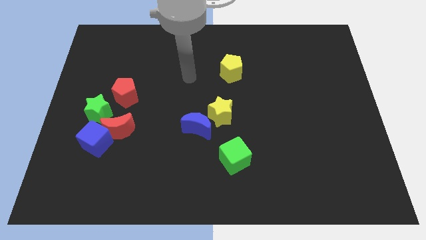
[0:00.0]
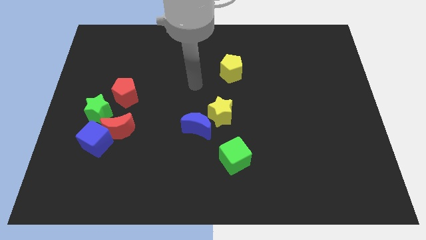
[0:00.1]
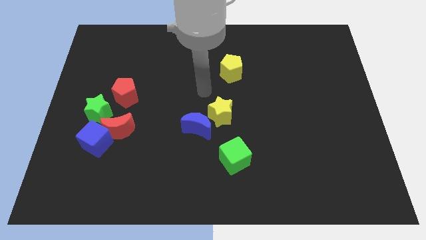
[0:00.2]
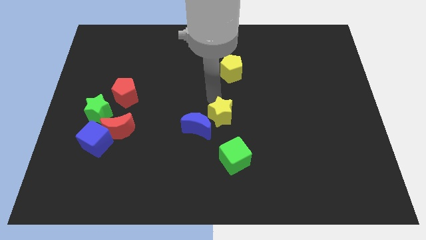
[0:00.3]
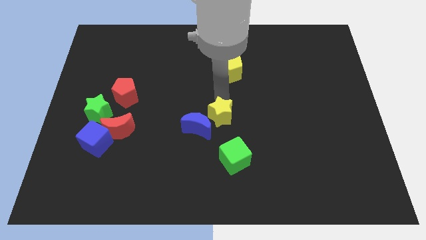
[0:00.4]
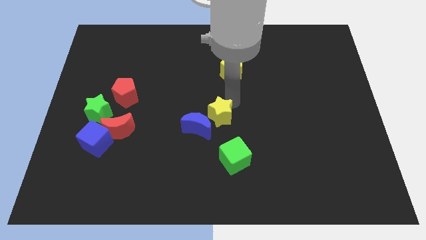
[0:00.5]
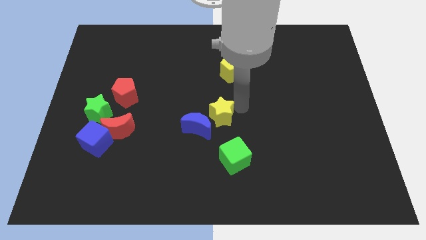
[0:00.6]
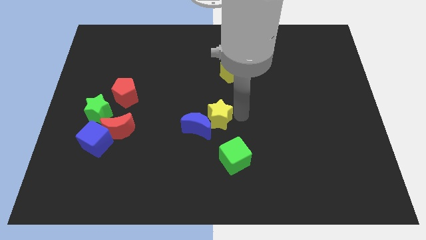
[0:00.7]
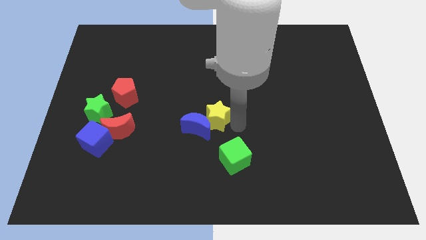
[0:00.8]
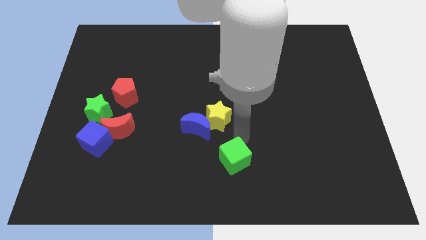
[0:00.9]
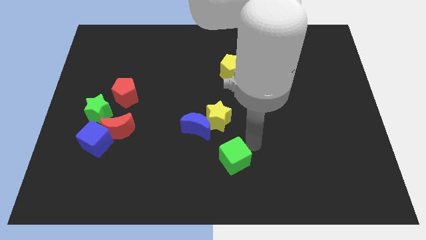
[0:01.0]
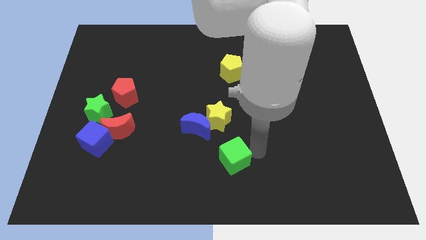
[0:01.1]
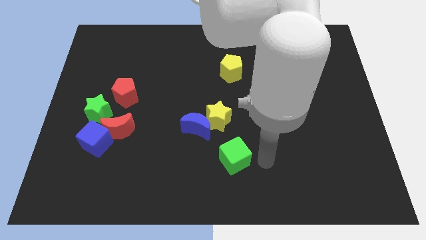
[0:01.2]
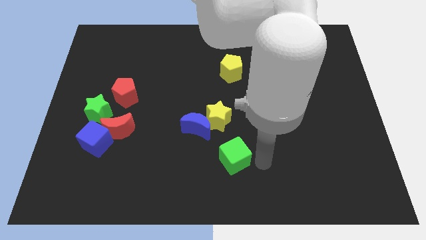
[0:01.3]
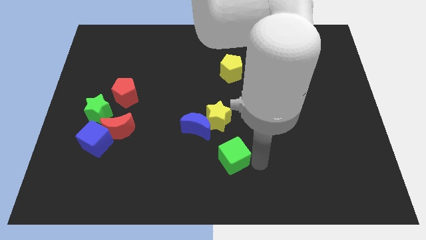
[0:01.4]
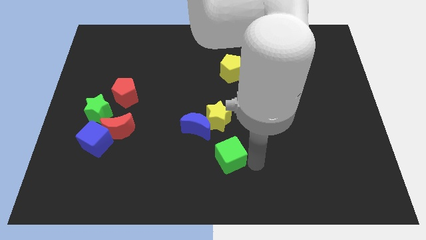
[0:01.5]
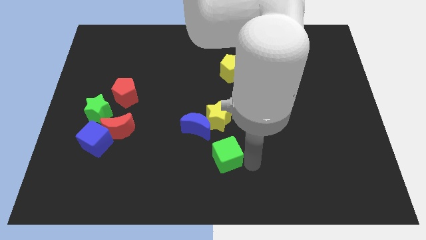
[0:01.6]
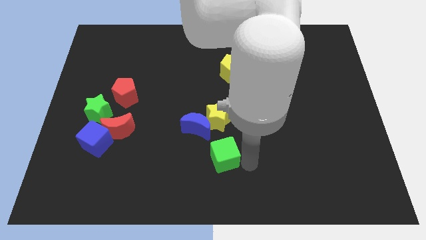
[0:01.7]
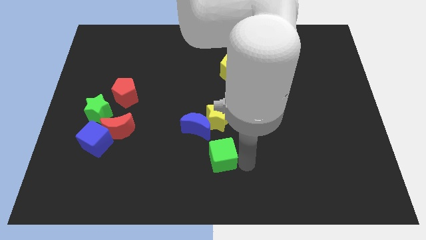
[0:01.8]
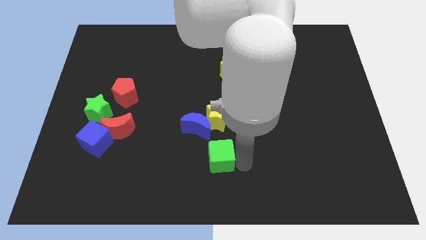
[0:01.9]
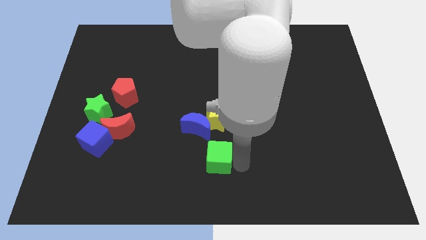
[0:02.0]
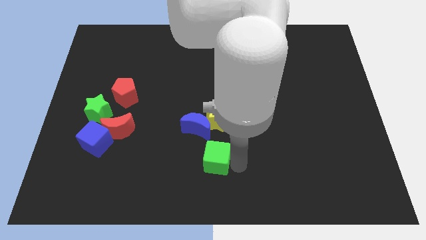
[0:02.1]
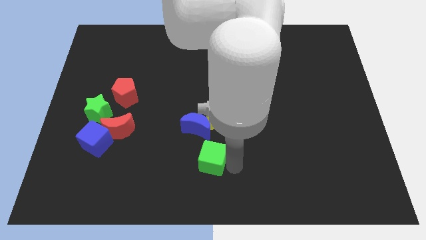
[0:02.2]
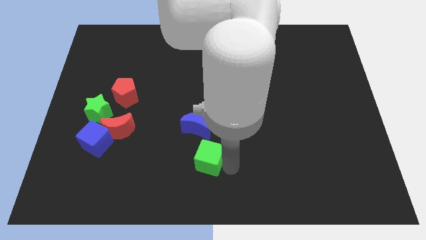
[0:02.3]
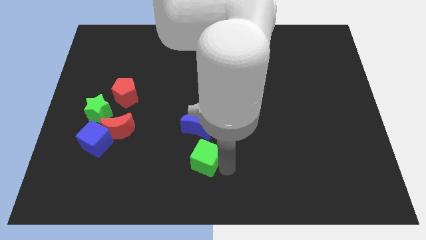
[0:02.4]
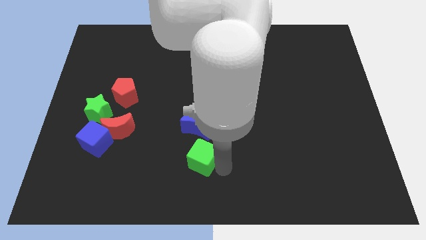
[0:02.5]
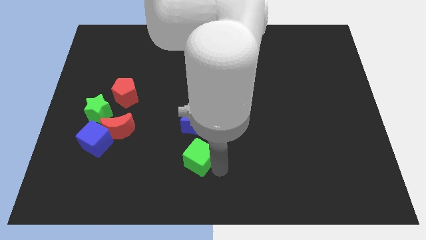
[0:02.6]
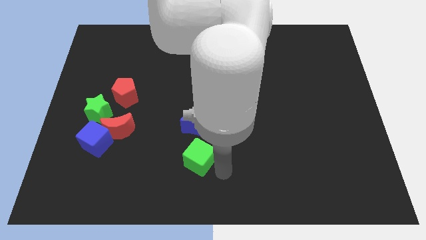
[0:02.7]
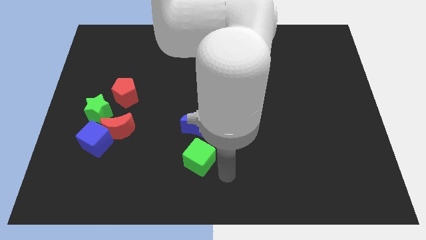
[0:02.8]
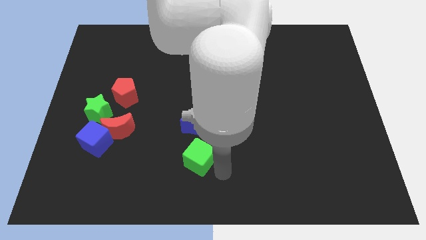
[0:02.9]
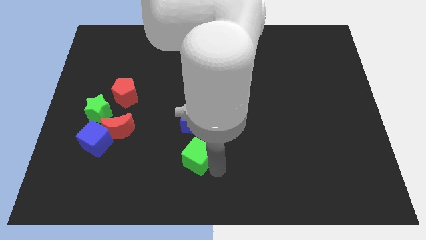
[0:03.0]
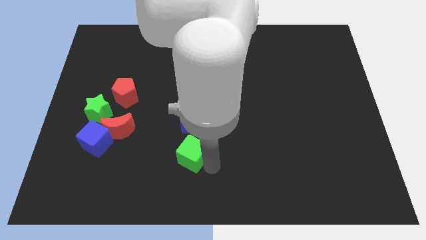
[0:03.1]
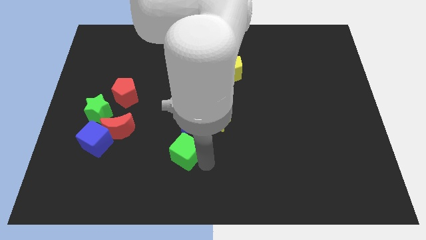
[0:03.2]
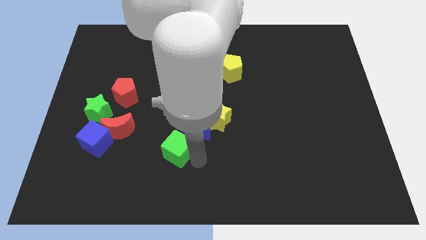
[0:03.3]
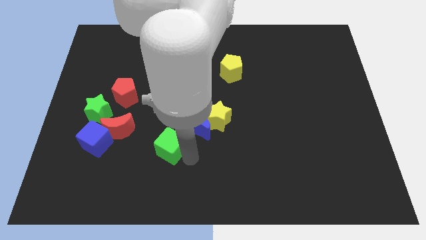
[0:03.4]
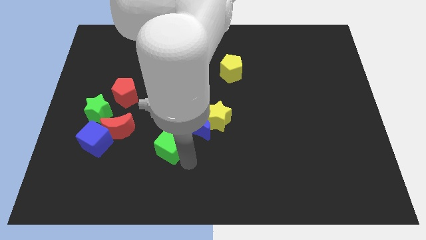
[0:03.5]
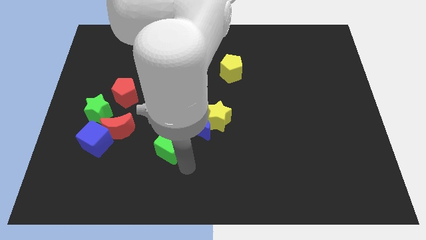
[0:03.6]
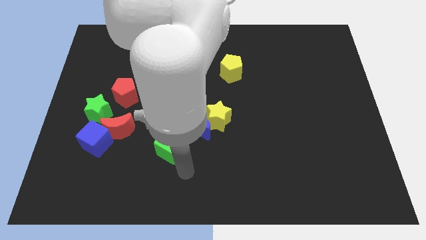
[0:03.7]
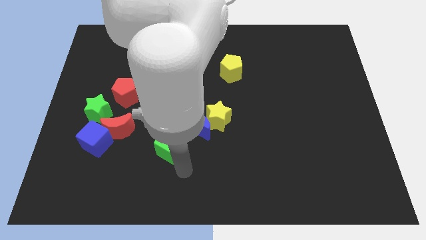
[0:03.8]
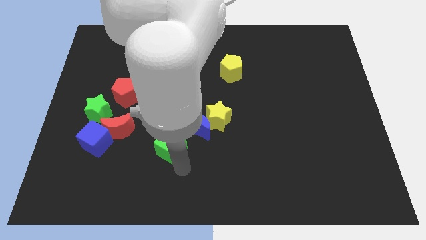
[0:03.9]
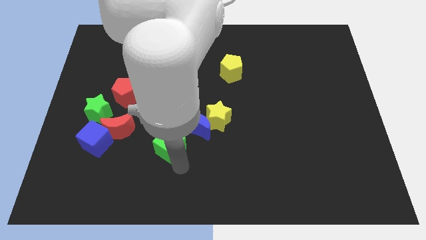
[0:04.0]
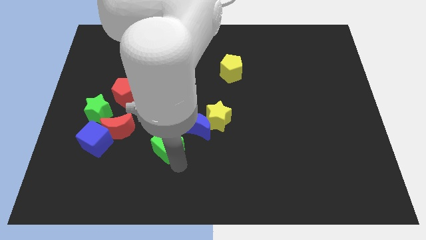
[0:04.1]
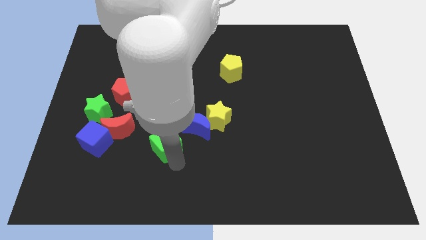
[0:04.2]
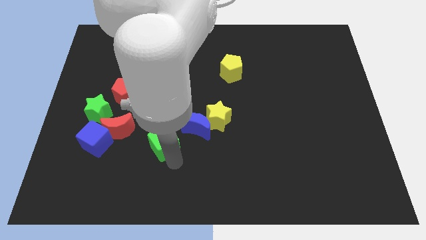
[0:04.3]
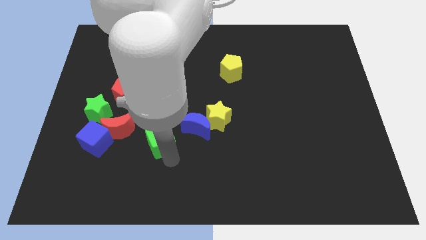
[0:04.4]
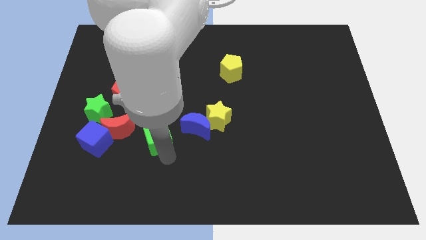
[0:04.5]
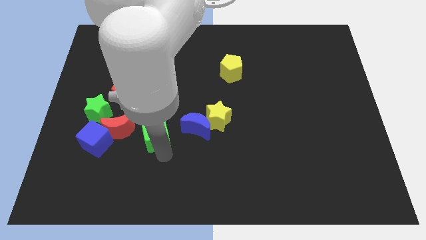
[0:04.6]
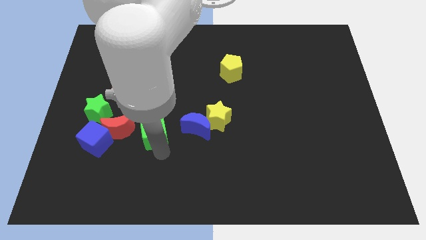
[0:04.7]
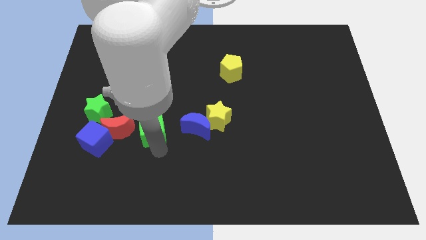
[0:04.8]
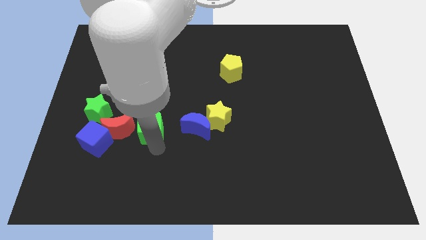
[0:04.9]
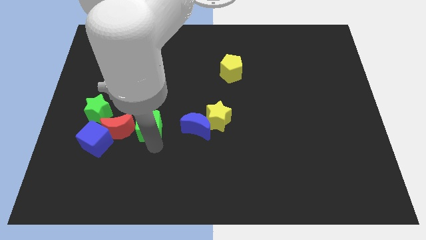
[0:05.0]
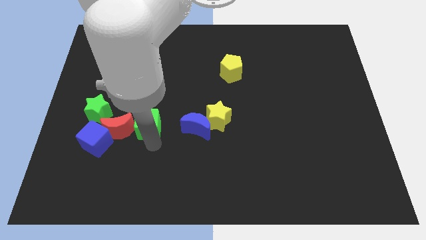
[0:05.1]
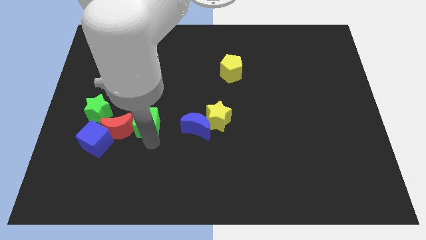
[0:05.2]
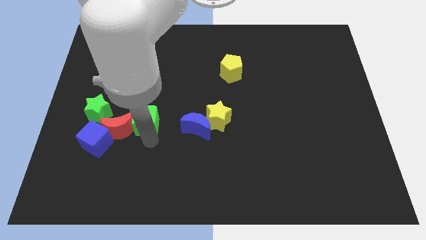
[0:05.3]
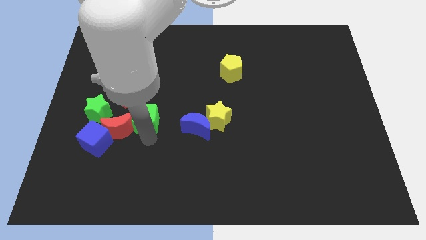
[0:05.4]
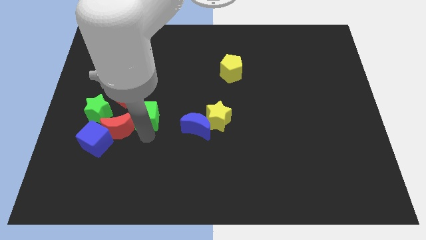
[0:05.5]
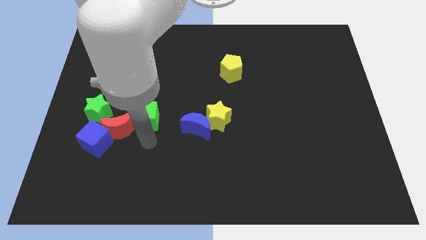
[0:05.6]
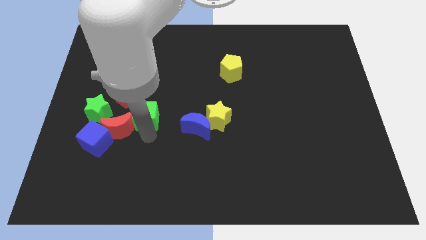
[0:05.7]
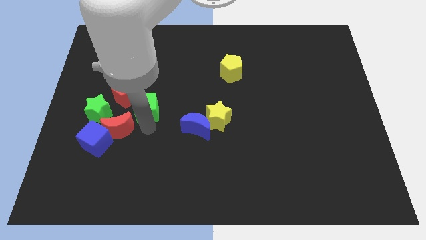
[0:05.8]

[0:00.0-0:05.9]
move the green cube upwards and to the left

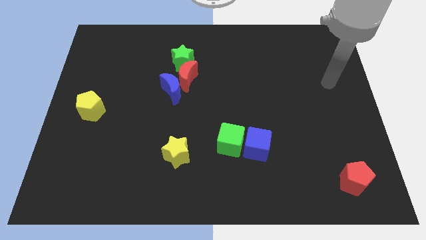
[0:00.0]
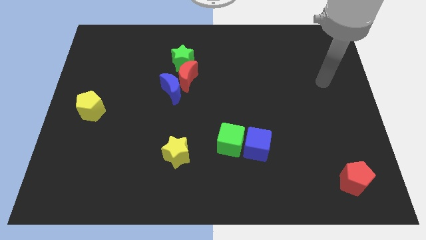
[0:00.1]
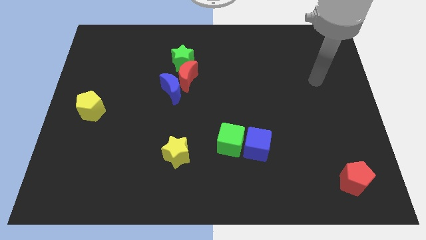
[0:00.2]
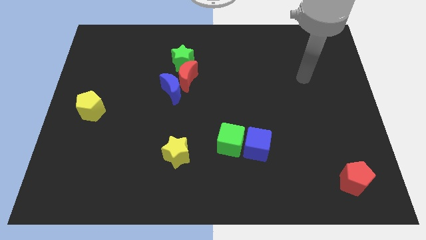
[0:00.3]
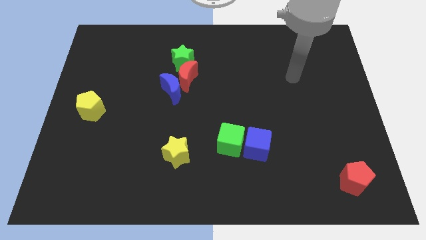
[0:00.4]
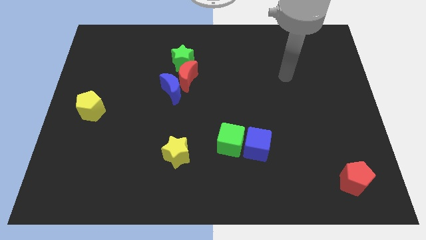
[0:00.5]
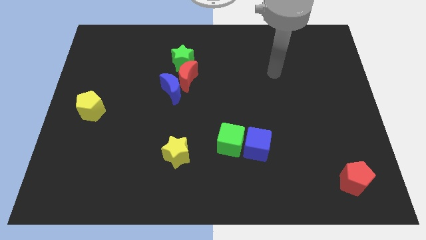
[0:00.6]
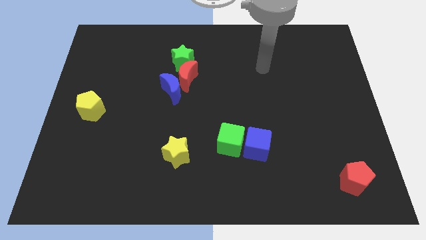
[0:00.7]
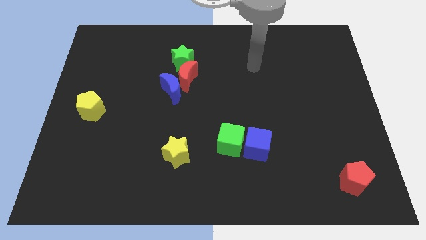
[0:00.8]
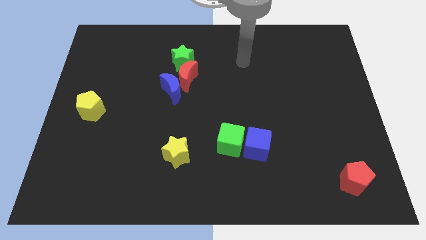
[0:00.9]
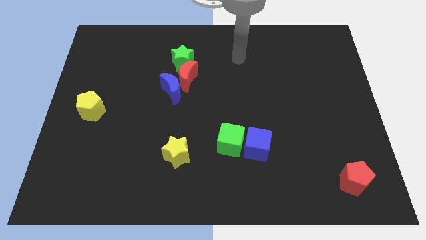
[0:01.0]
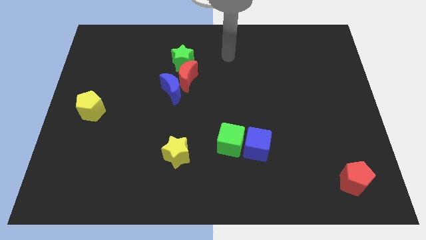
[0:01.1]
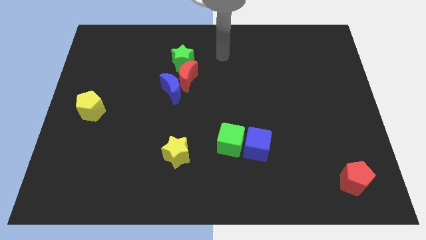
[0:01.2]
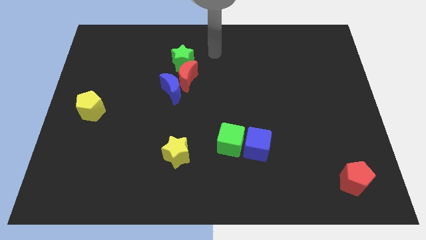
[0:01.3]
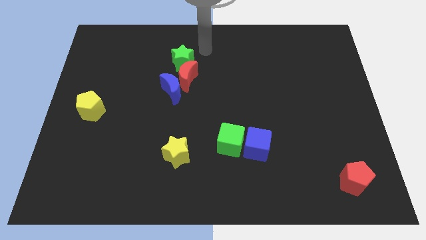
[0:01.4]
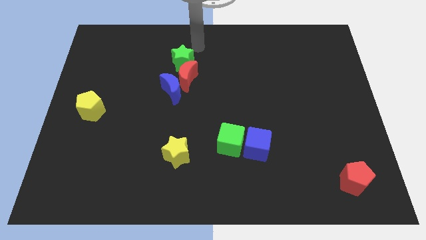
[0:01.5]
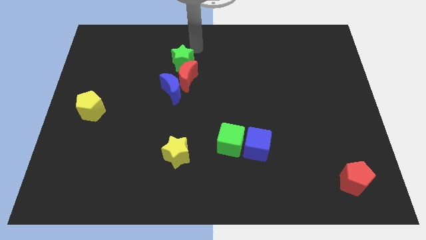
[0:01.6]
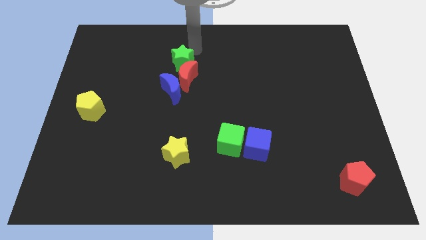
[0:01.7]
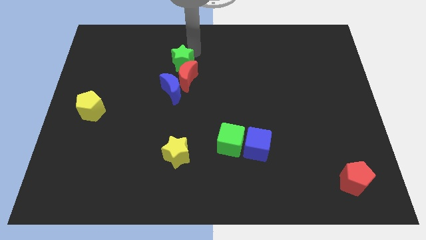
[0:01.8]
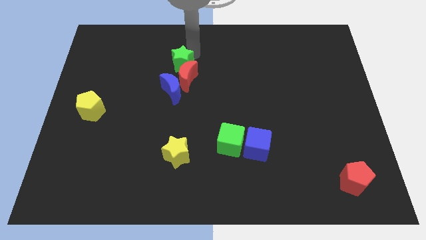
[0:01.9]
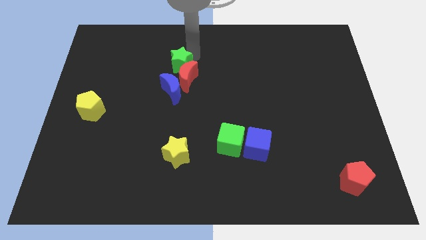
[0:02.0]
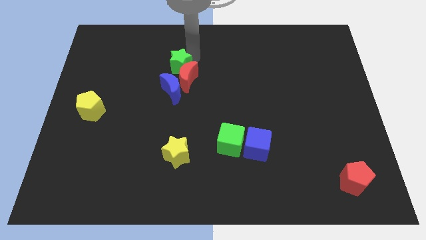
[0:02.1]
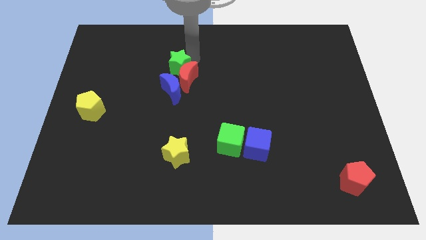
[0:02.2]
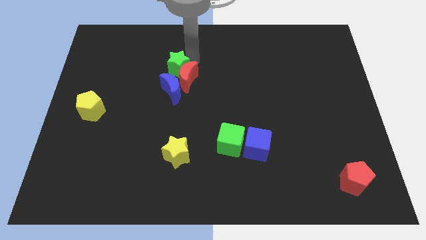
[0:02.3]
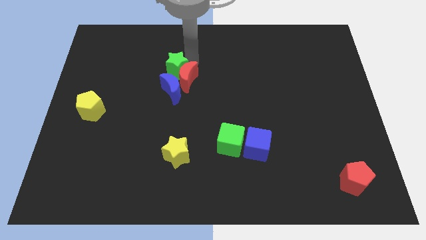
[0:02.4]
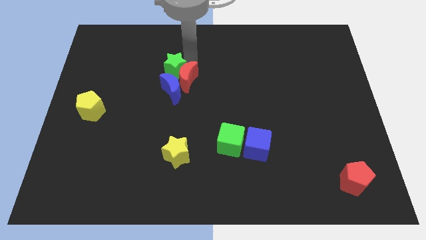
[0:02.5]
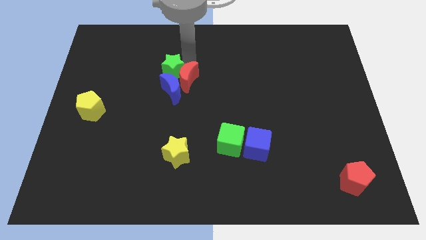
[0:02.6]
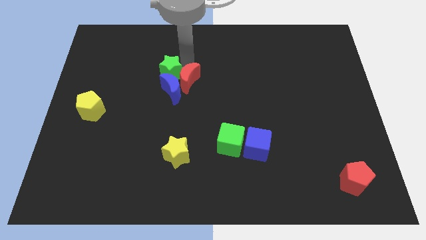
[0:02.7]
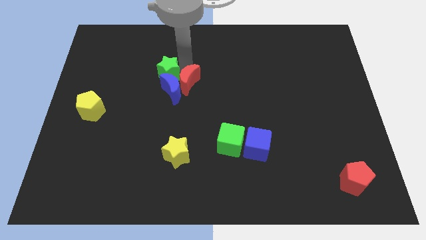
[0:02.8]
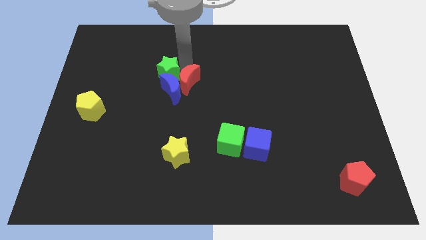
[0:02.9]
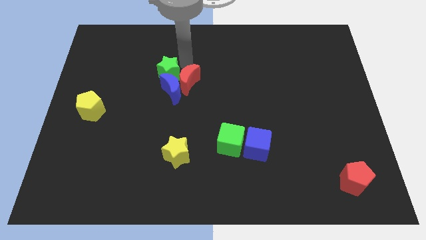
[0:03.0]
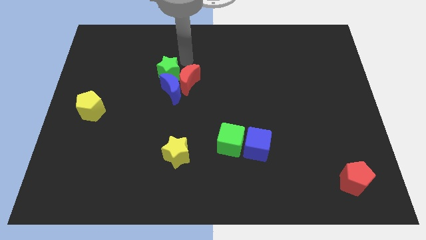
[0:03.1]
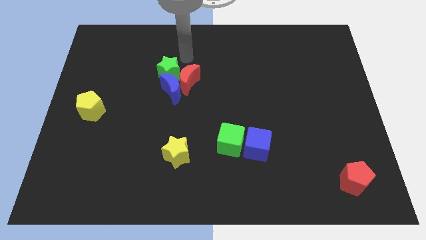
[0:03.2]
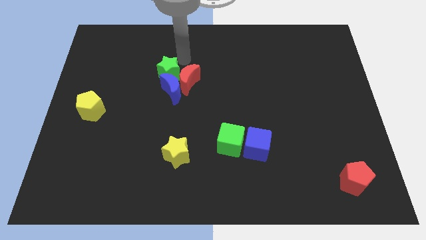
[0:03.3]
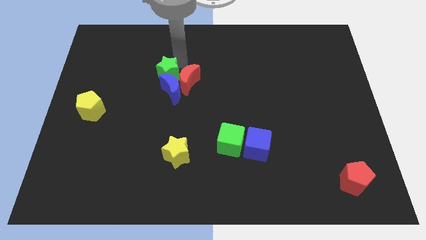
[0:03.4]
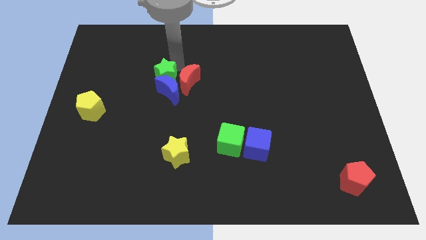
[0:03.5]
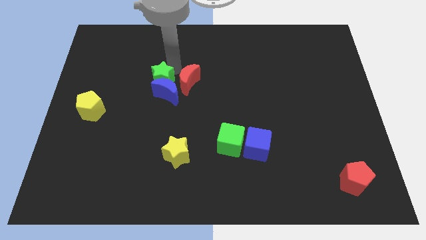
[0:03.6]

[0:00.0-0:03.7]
push the green star downwards and left a little
